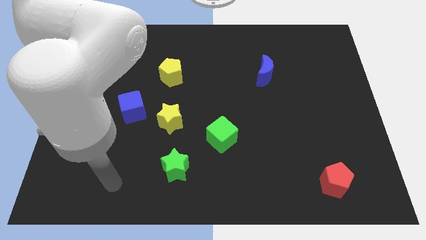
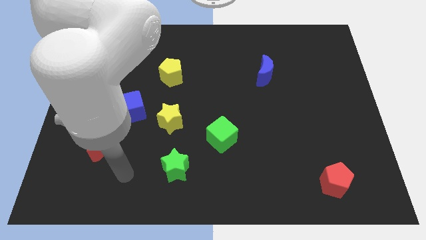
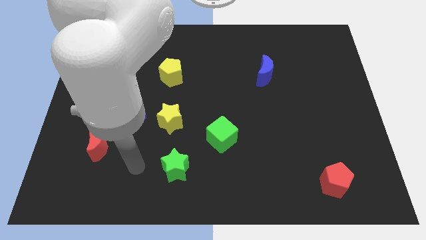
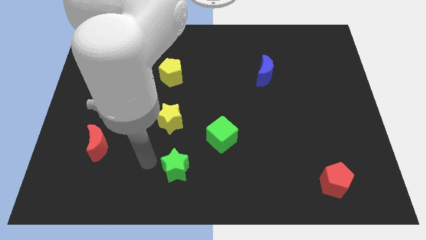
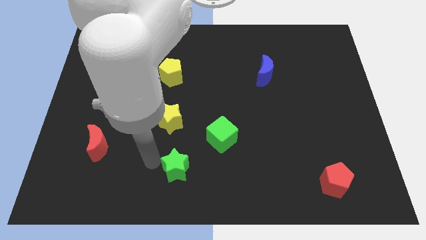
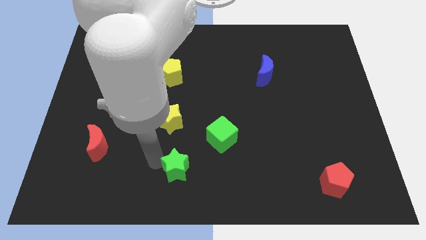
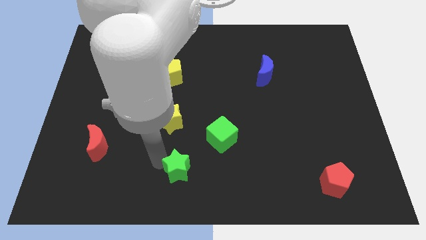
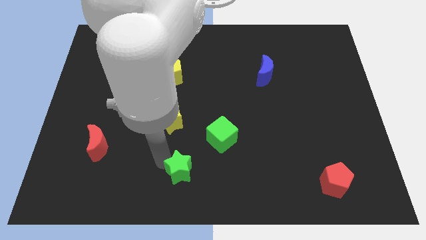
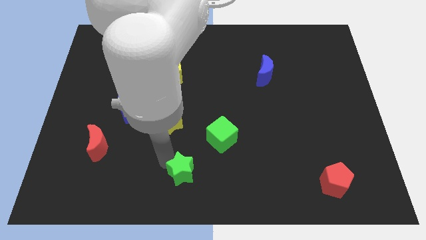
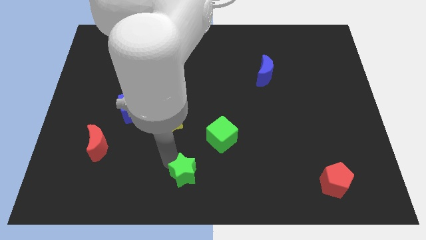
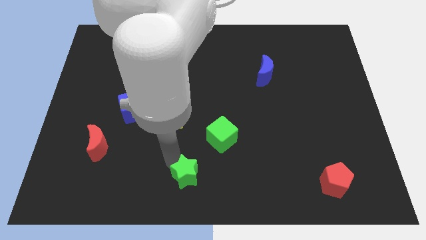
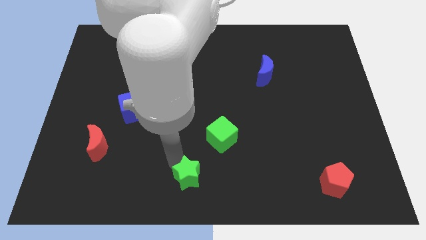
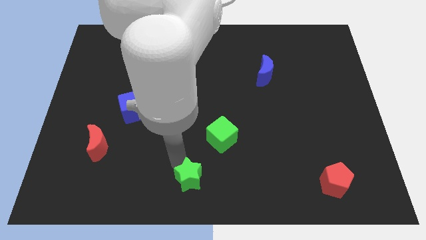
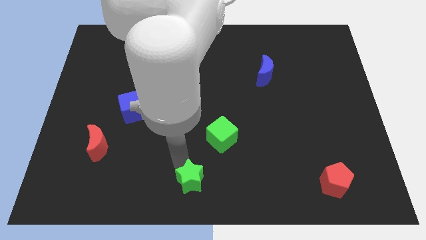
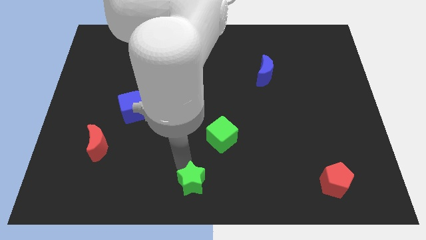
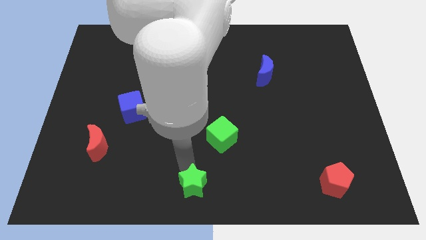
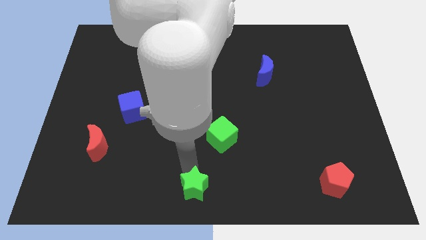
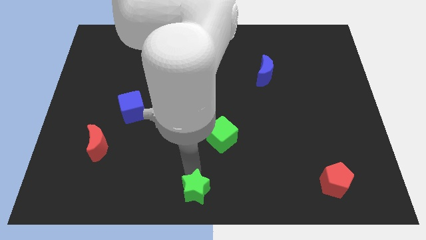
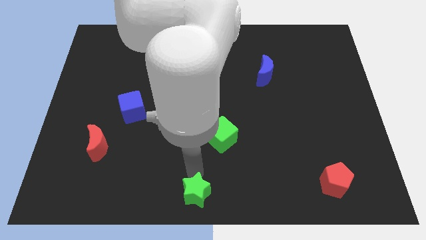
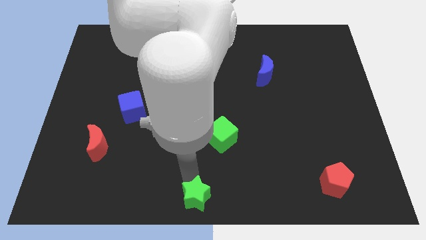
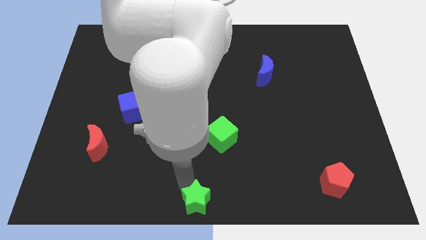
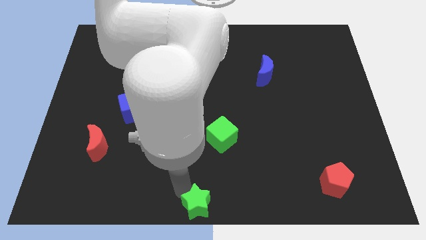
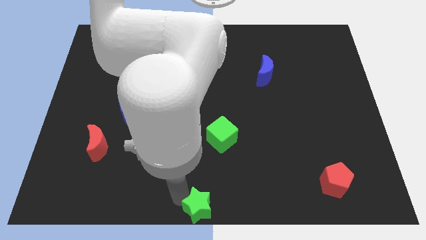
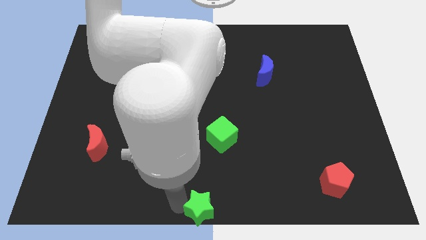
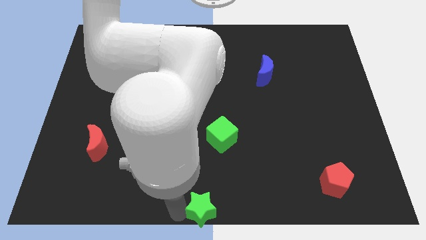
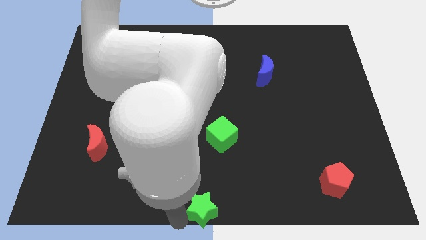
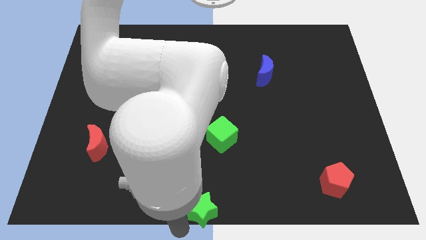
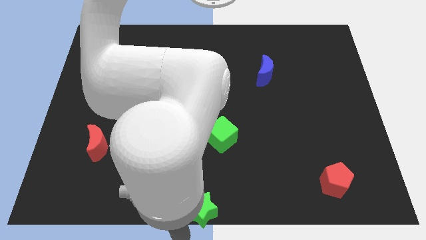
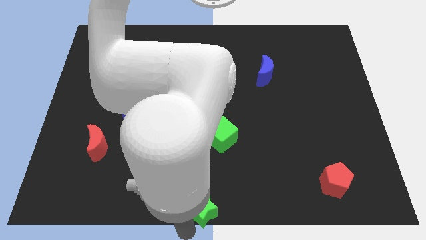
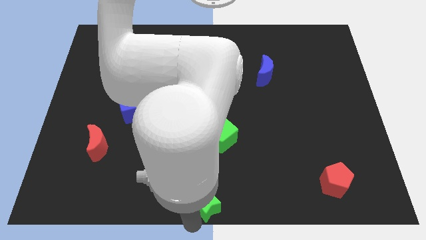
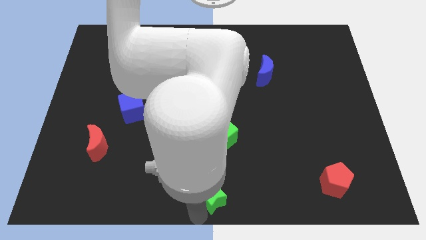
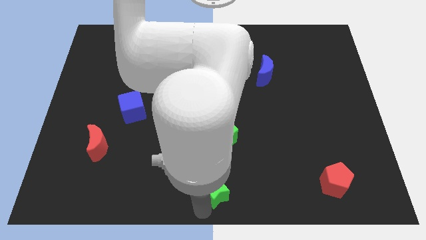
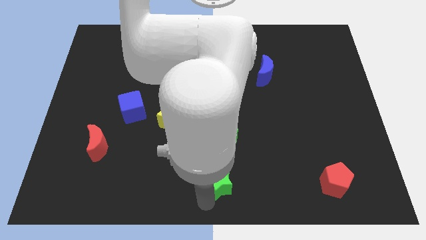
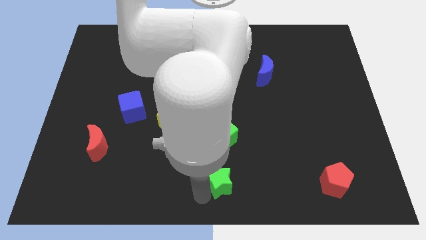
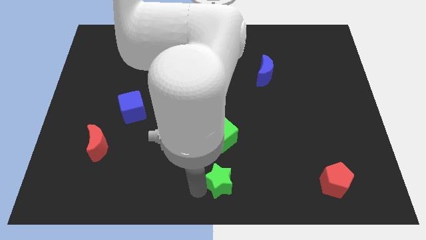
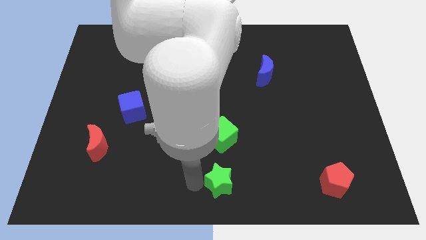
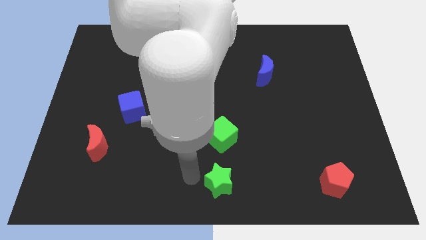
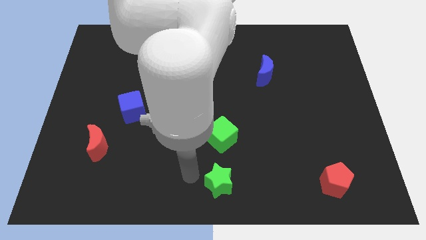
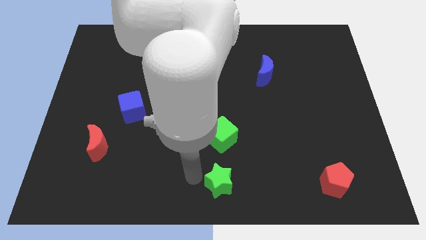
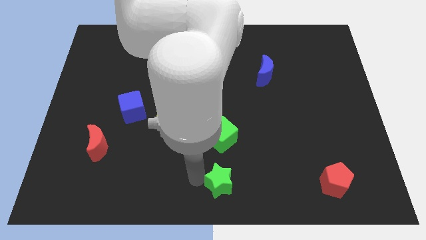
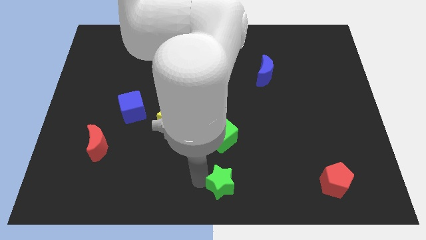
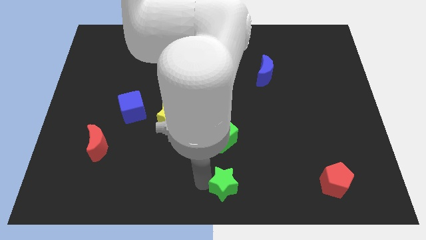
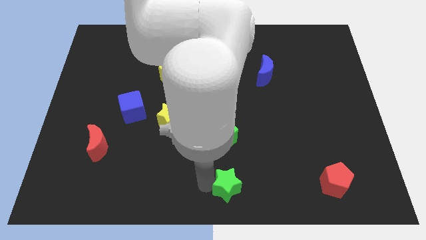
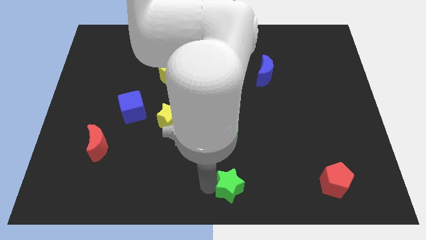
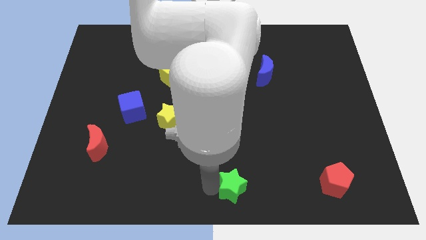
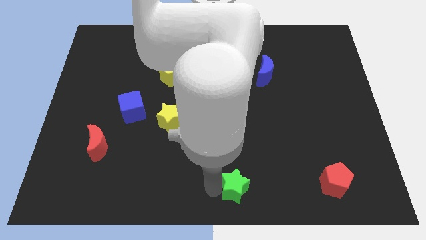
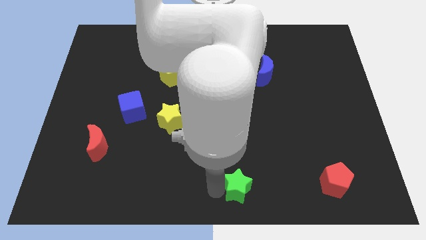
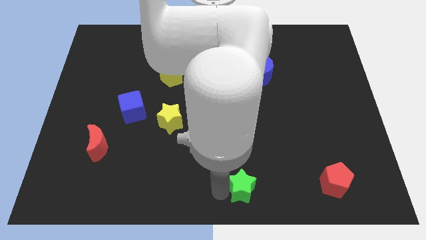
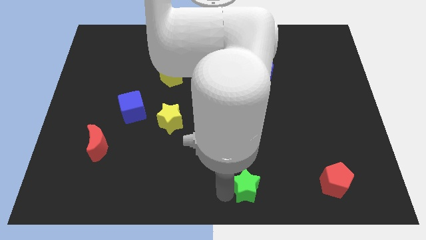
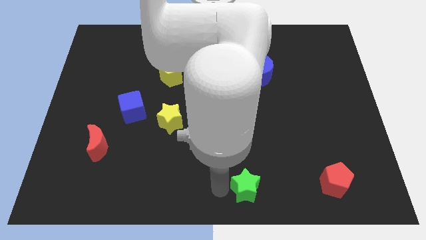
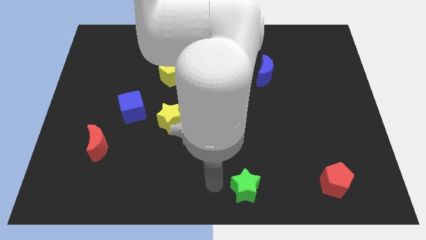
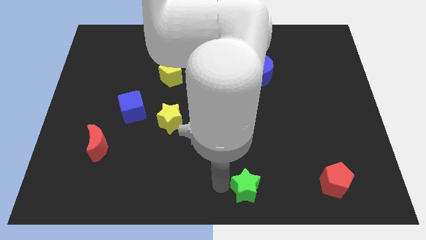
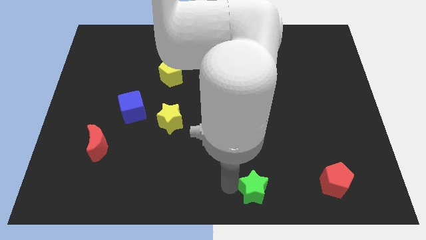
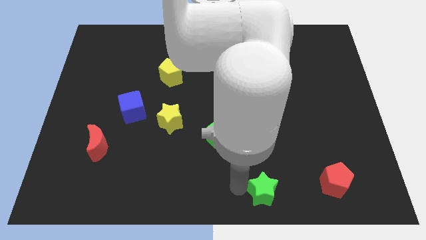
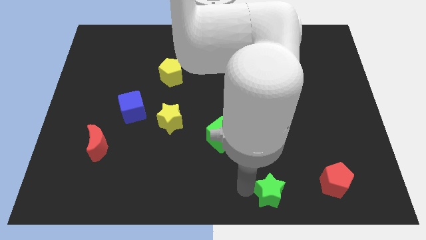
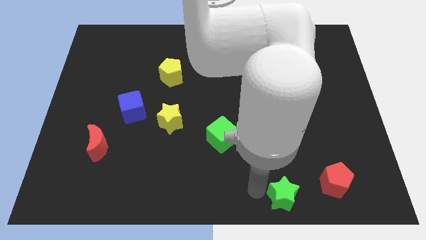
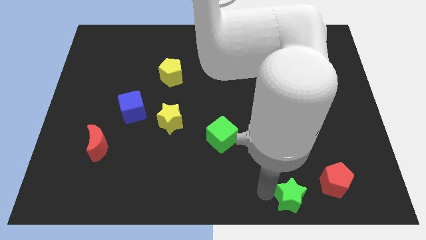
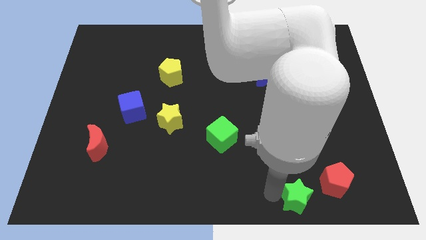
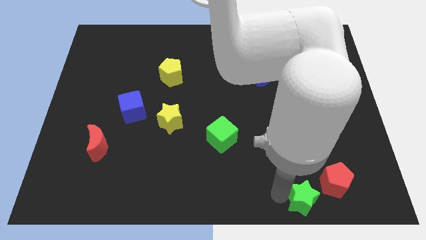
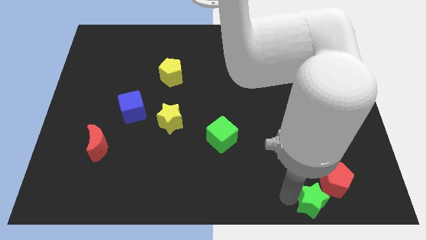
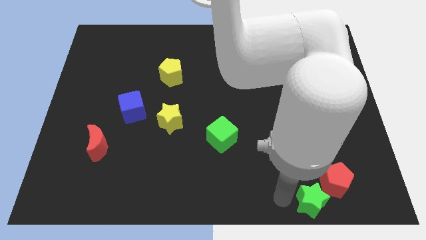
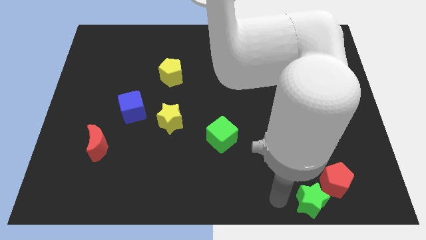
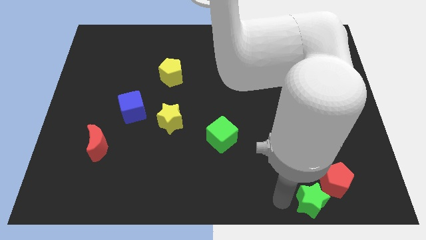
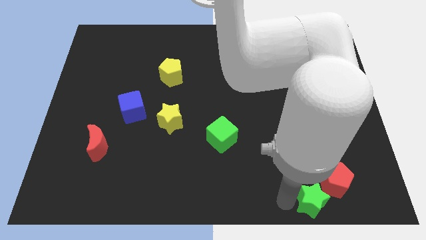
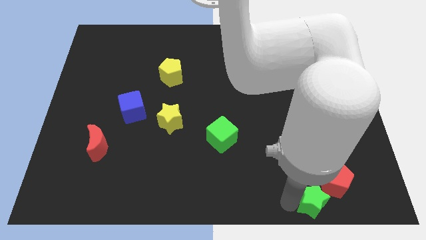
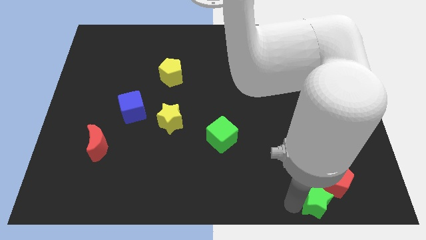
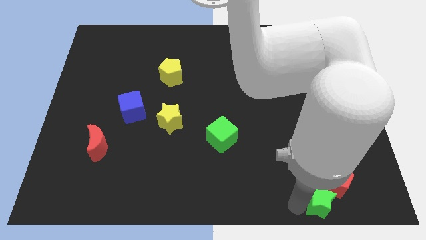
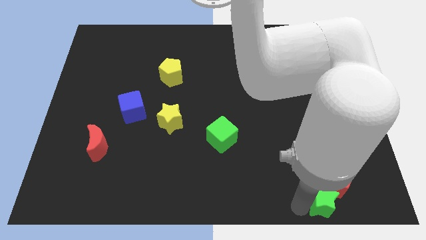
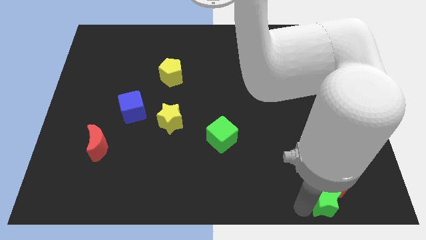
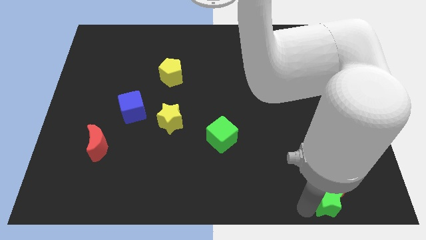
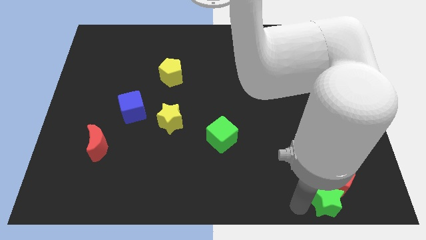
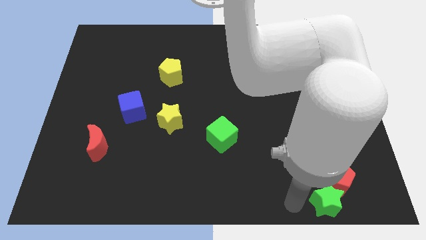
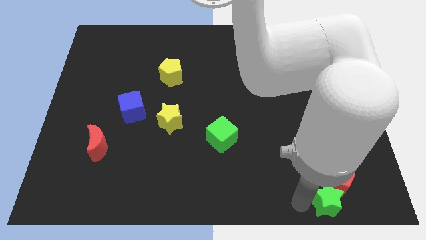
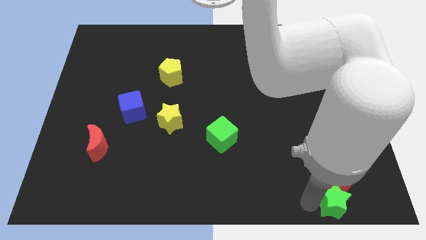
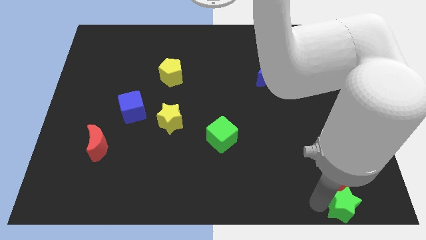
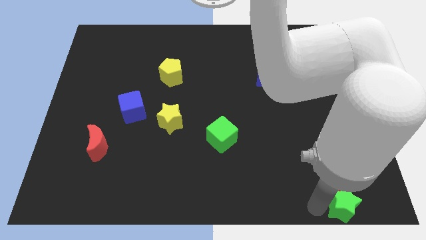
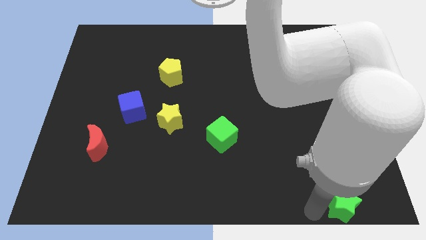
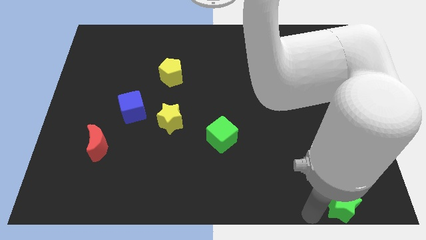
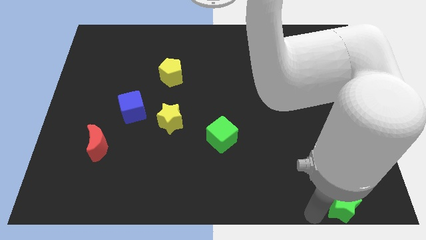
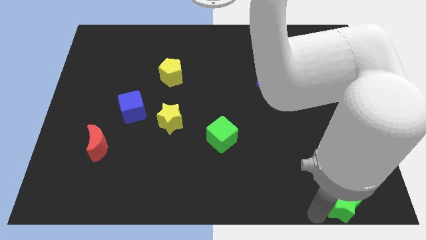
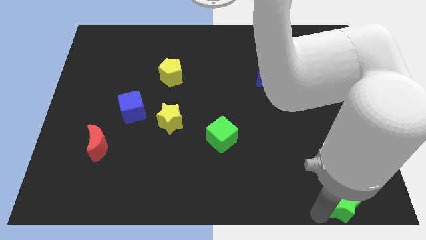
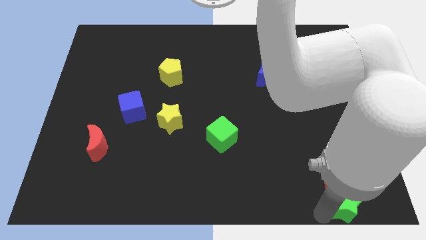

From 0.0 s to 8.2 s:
move the green star to the bottom right
